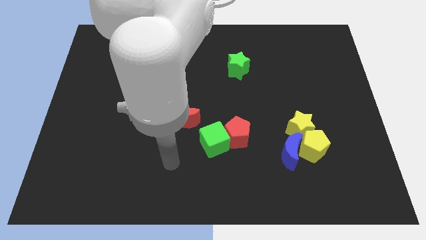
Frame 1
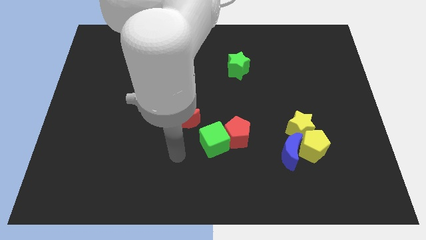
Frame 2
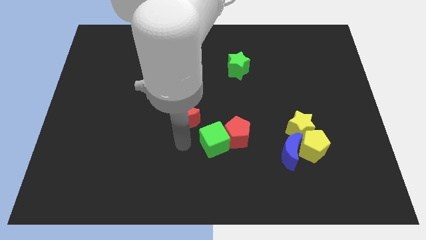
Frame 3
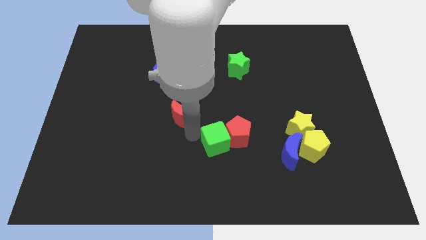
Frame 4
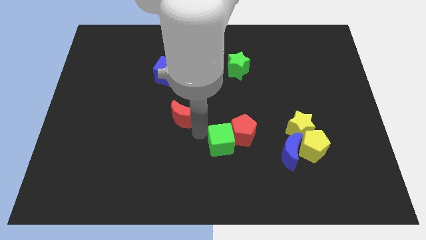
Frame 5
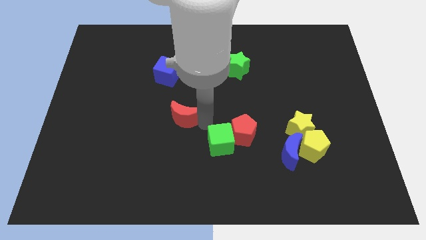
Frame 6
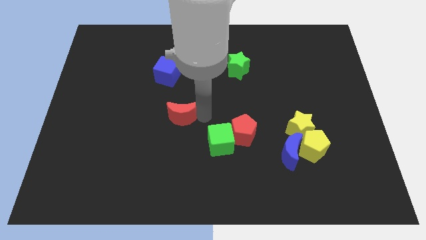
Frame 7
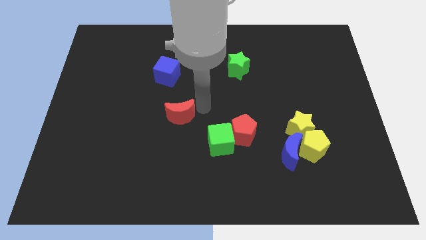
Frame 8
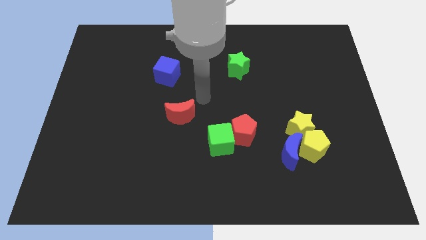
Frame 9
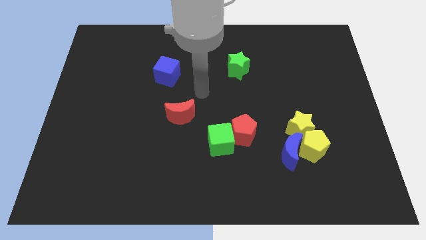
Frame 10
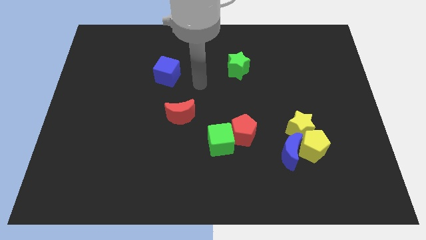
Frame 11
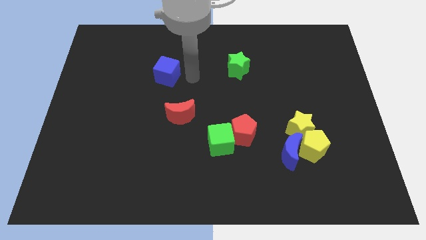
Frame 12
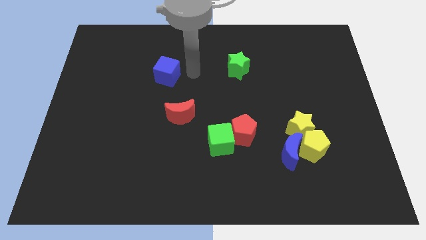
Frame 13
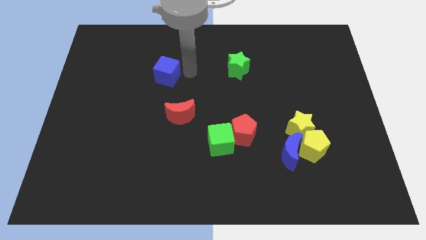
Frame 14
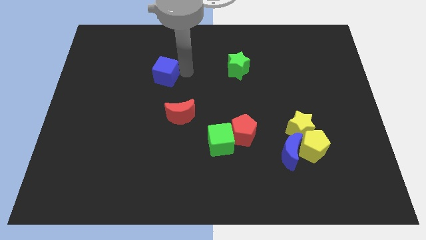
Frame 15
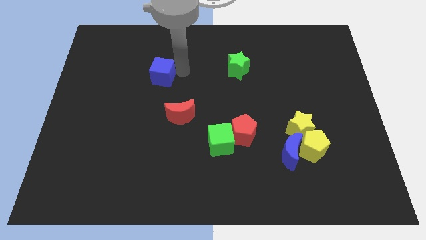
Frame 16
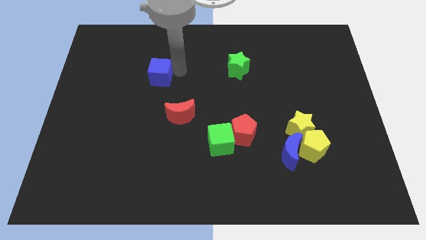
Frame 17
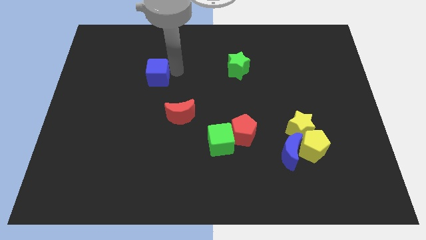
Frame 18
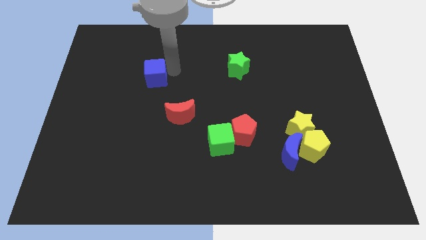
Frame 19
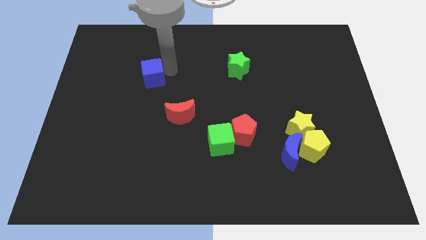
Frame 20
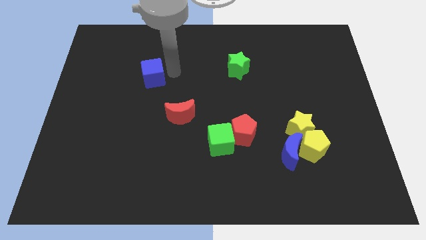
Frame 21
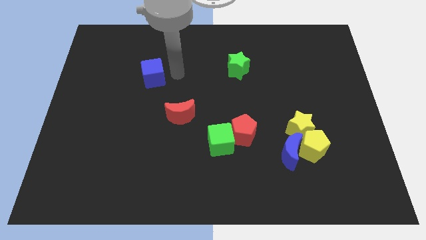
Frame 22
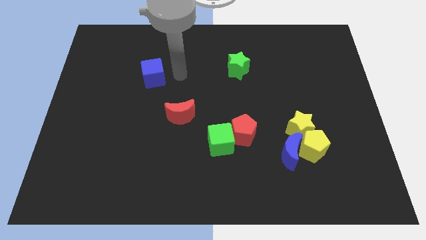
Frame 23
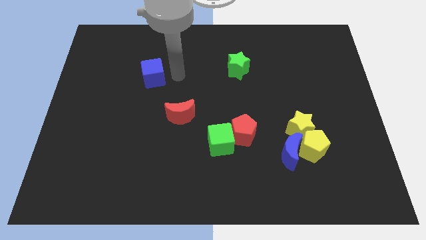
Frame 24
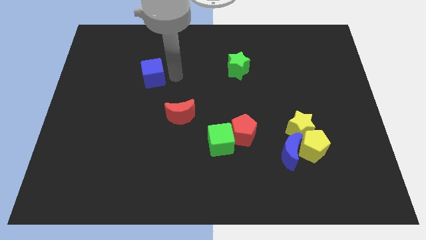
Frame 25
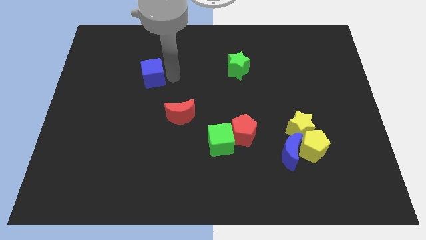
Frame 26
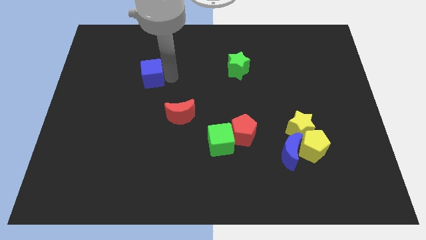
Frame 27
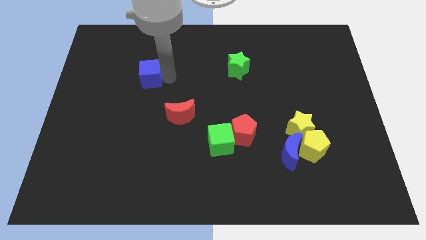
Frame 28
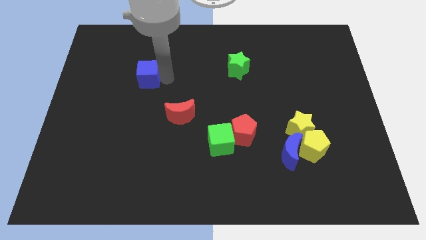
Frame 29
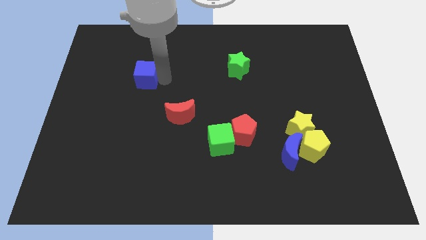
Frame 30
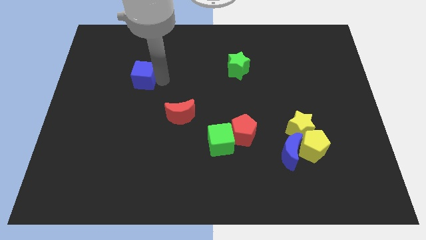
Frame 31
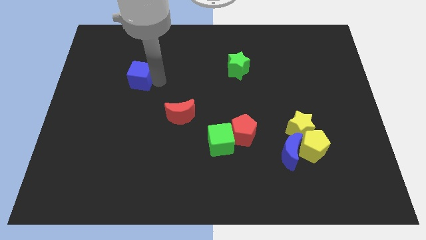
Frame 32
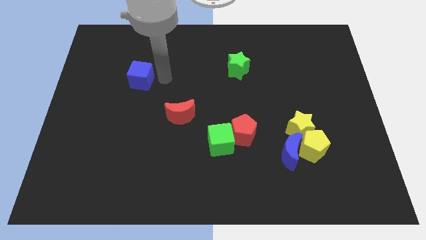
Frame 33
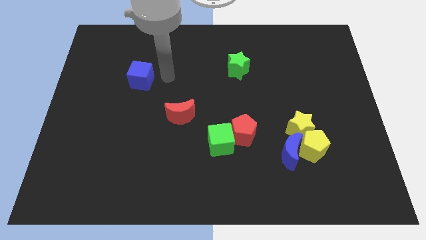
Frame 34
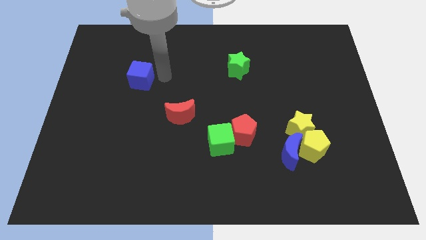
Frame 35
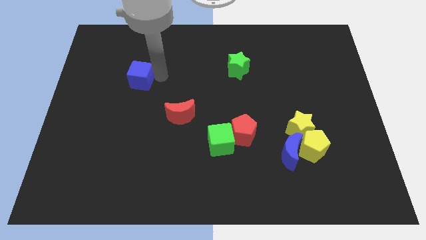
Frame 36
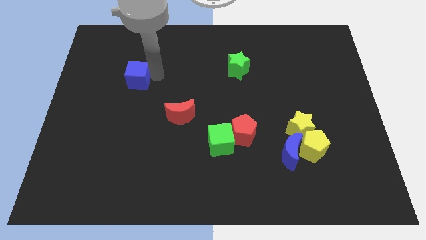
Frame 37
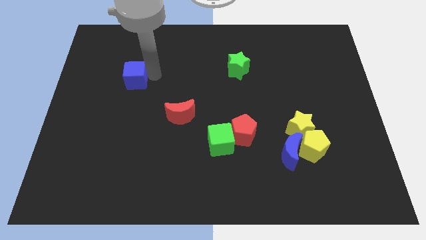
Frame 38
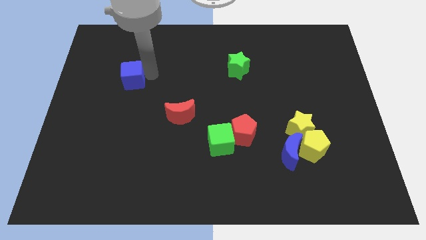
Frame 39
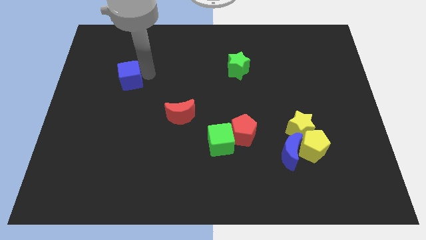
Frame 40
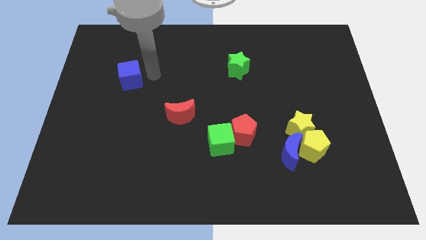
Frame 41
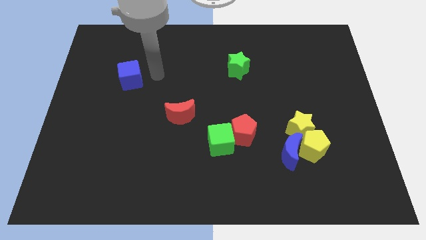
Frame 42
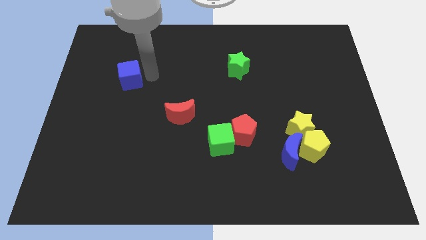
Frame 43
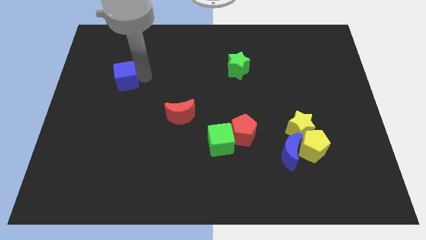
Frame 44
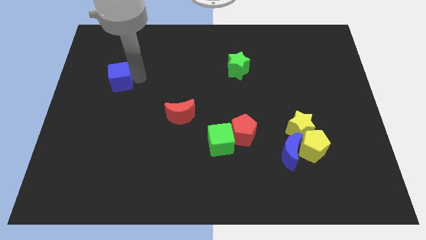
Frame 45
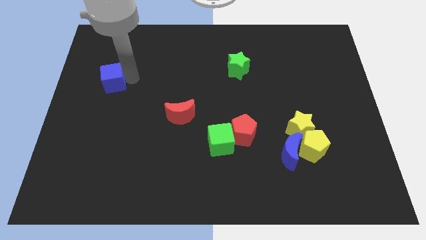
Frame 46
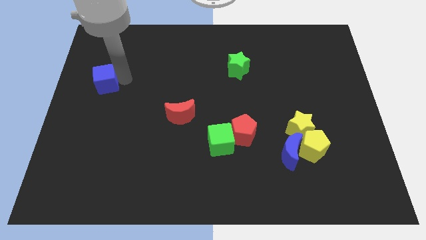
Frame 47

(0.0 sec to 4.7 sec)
move the blue cube to the left side

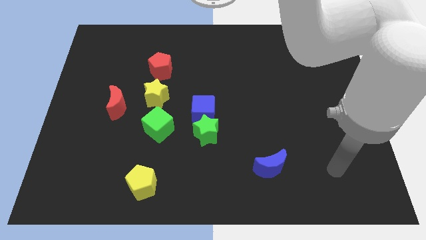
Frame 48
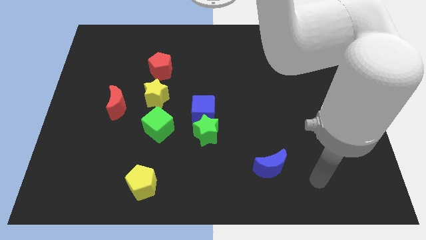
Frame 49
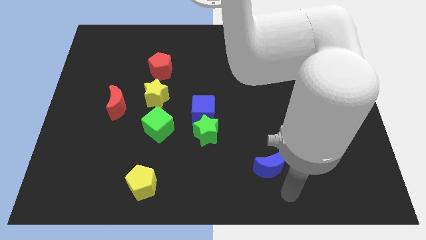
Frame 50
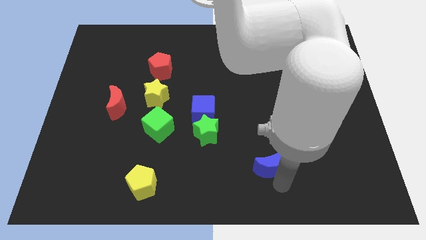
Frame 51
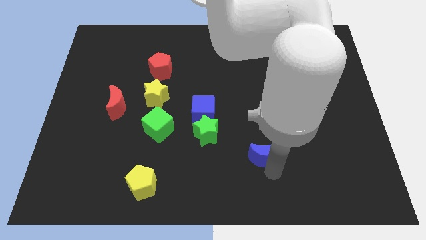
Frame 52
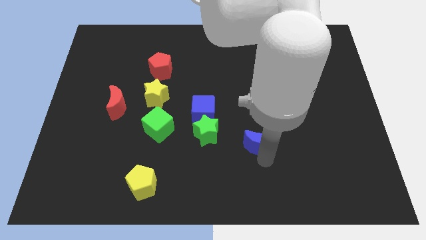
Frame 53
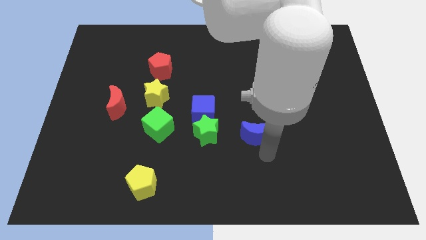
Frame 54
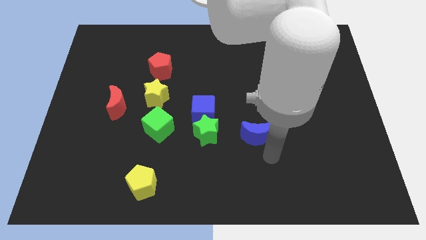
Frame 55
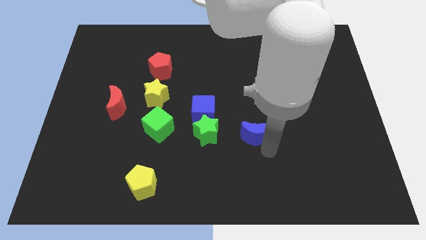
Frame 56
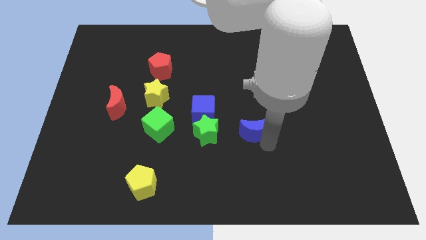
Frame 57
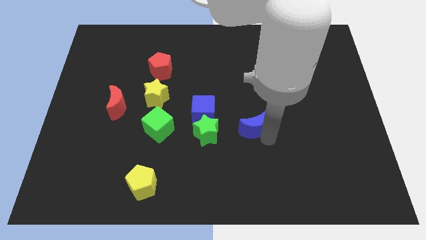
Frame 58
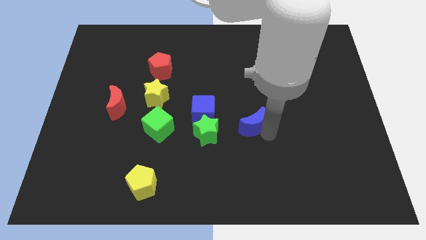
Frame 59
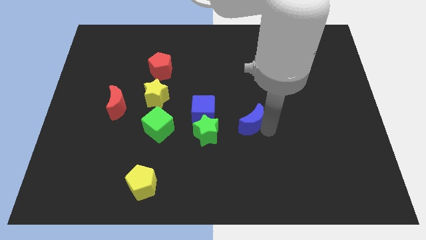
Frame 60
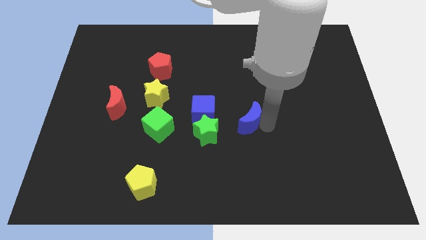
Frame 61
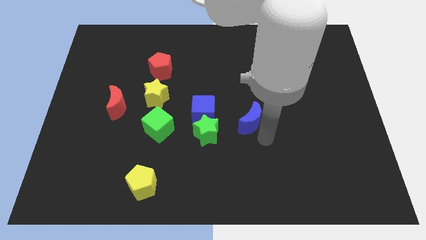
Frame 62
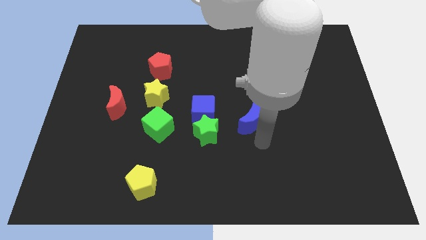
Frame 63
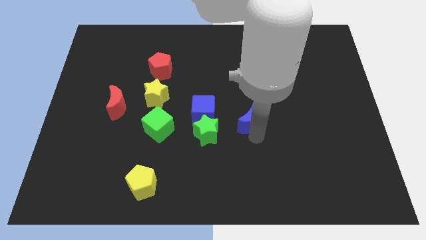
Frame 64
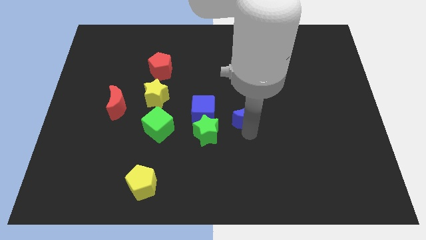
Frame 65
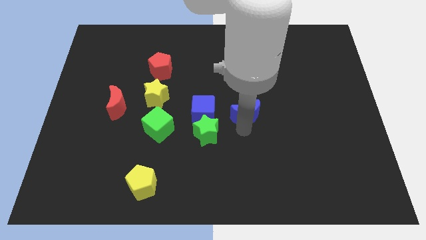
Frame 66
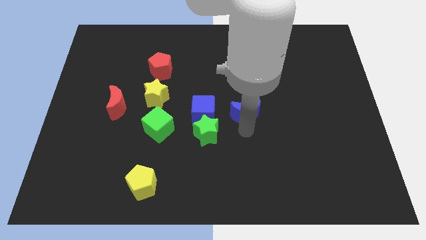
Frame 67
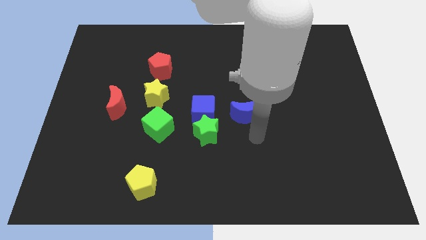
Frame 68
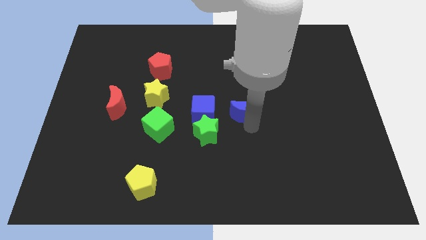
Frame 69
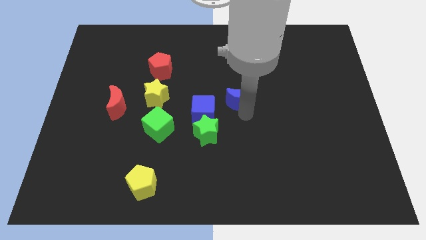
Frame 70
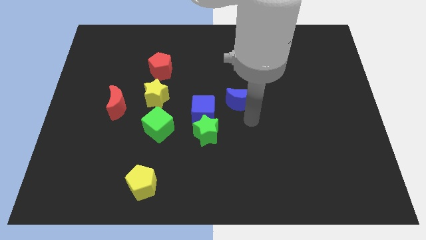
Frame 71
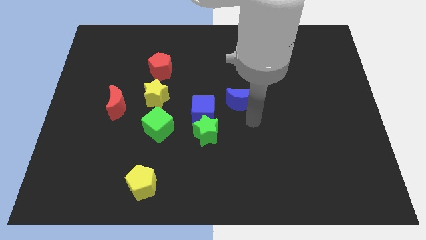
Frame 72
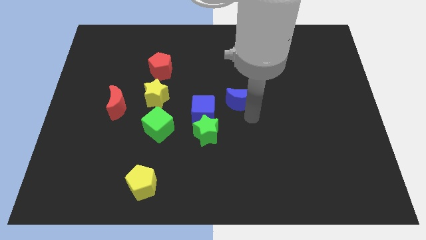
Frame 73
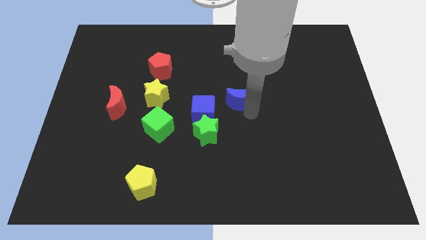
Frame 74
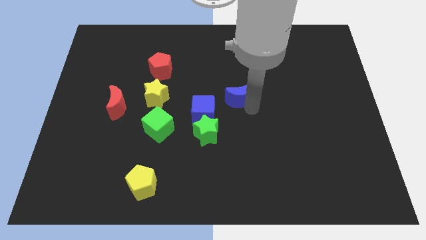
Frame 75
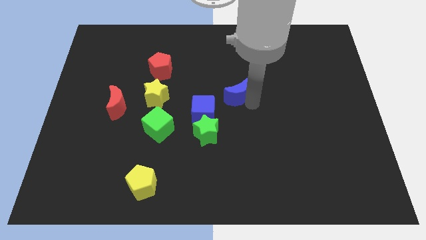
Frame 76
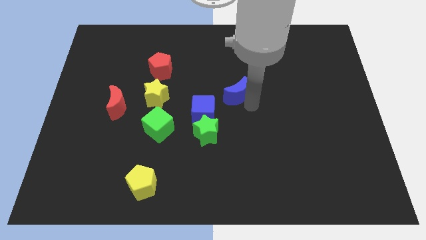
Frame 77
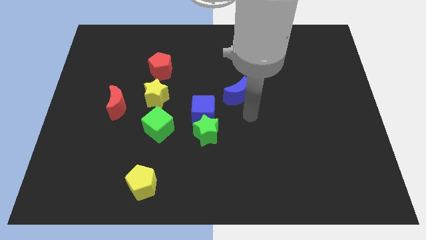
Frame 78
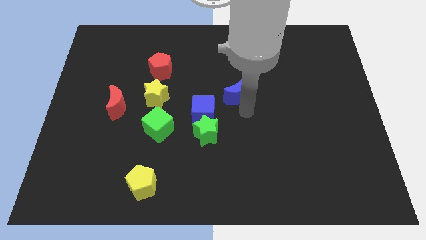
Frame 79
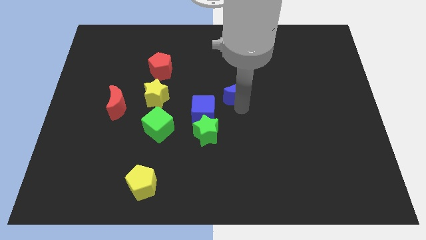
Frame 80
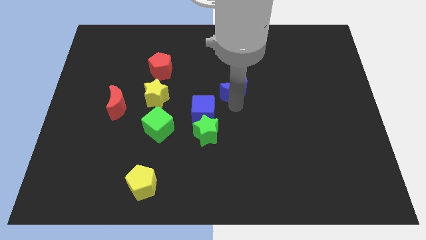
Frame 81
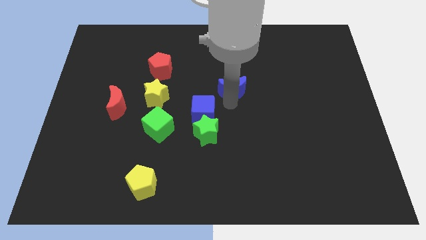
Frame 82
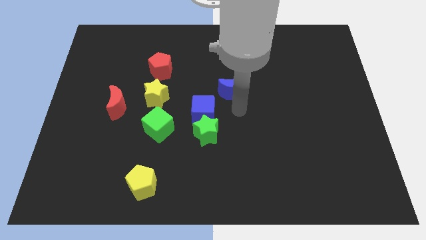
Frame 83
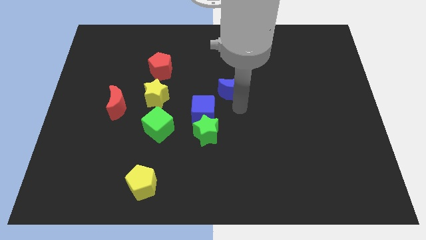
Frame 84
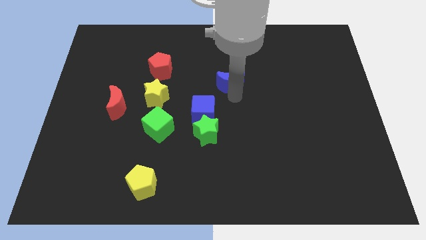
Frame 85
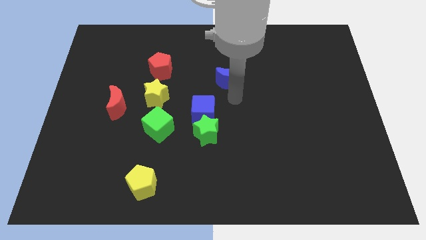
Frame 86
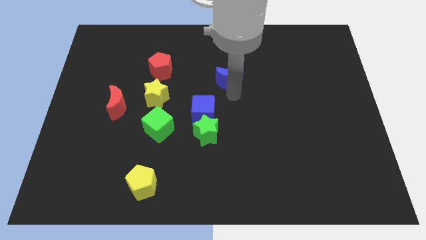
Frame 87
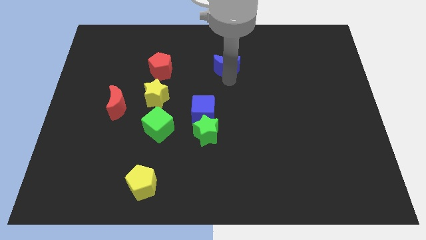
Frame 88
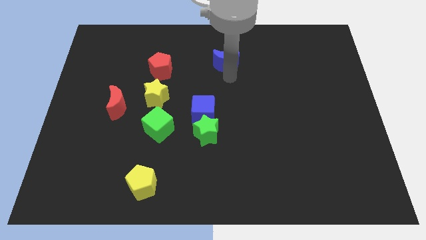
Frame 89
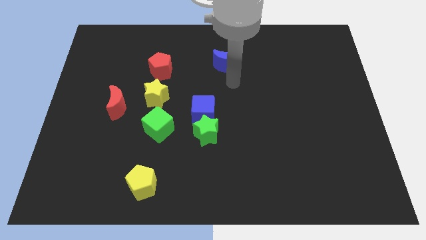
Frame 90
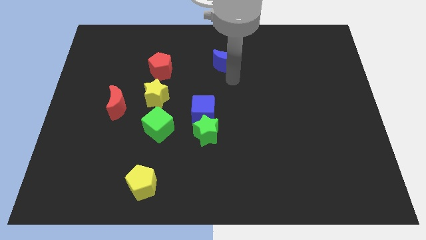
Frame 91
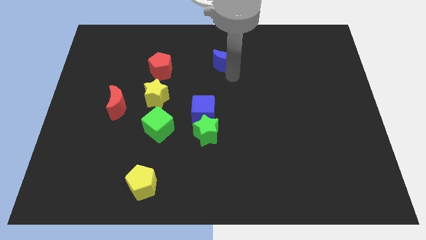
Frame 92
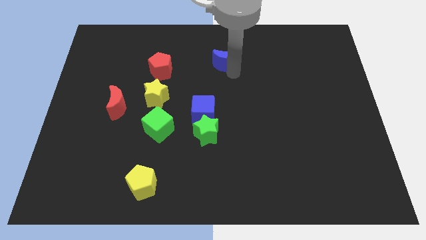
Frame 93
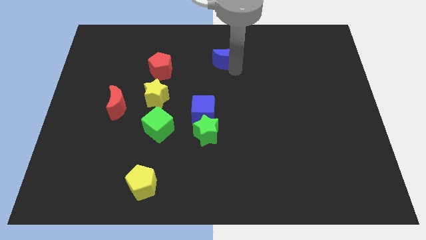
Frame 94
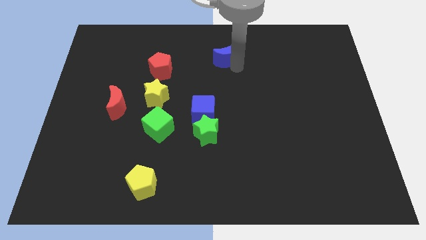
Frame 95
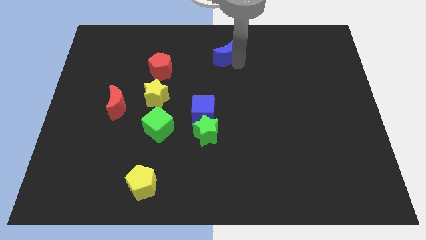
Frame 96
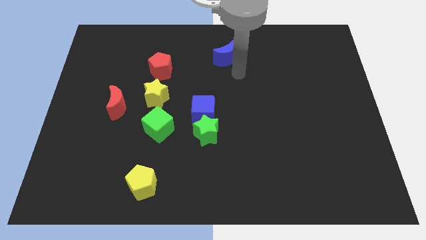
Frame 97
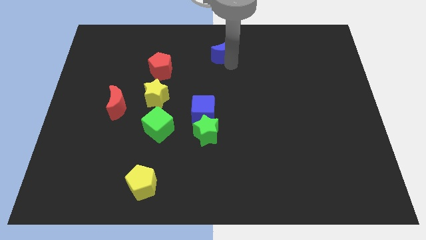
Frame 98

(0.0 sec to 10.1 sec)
put the blue moon to the top
